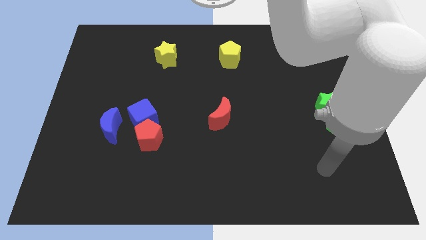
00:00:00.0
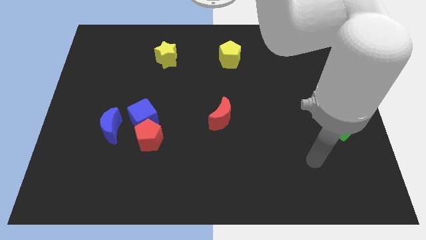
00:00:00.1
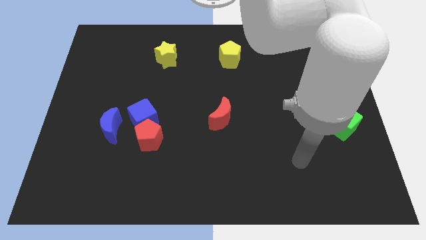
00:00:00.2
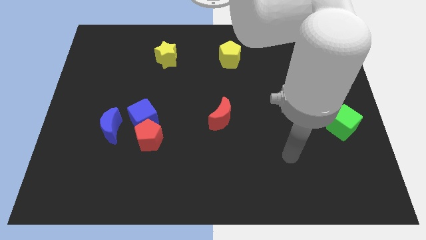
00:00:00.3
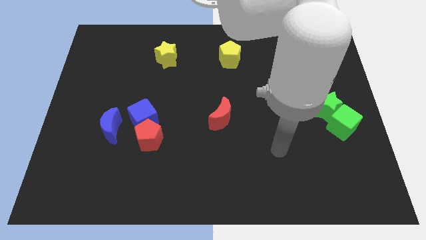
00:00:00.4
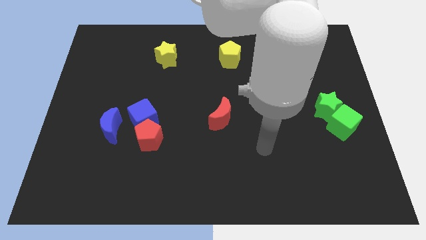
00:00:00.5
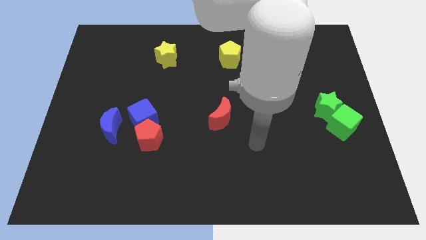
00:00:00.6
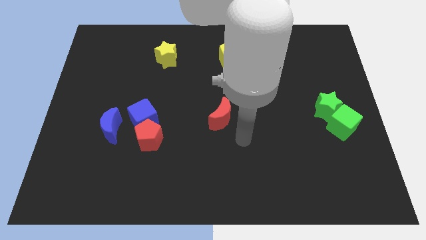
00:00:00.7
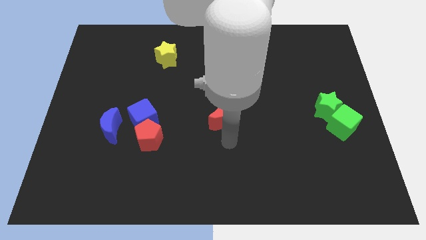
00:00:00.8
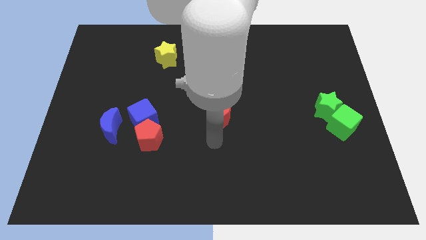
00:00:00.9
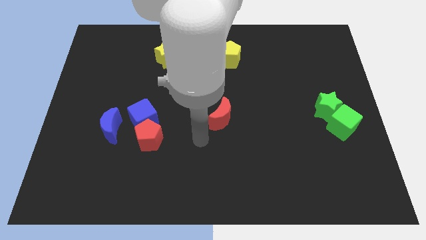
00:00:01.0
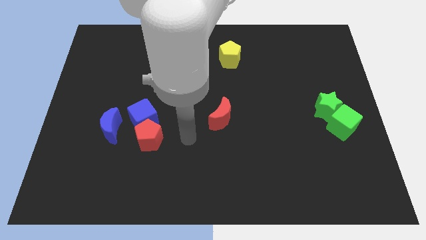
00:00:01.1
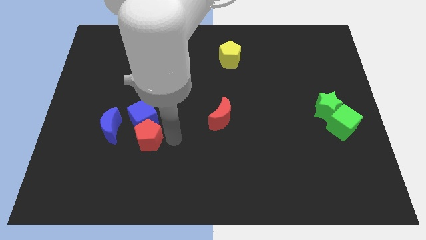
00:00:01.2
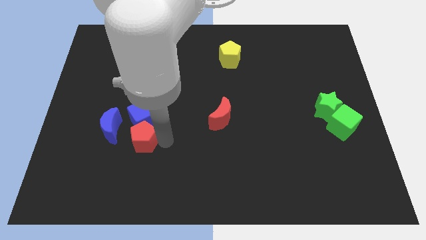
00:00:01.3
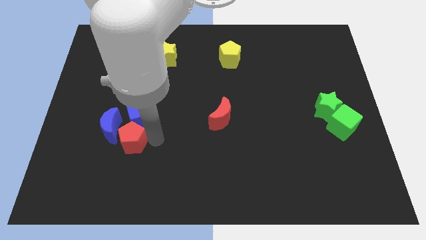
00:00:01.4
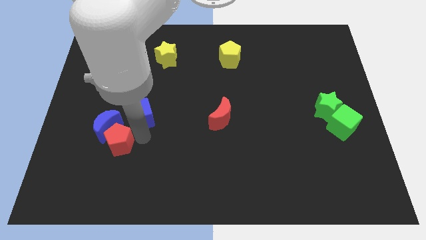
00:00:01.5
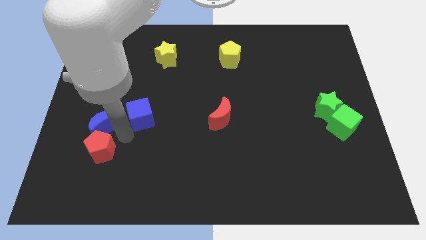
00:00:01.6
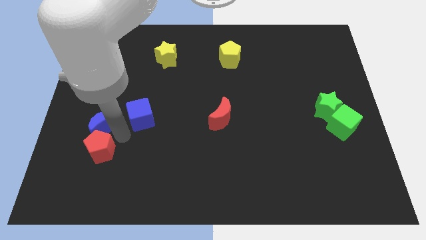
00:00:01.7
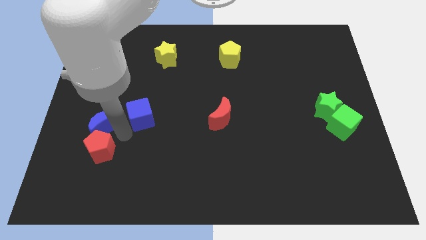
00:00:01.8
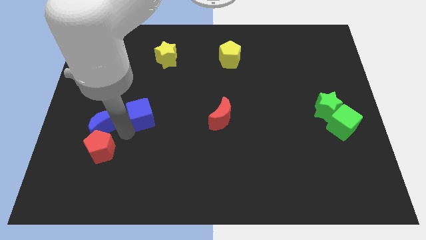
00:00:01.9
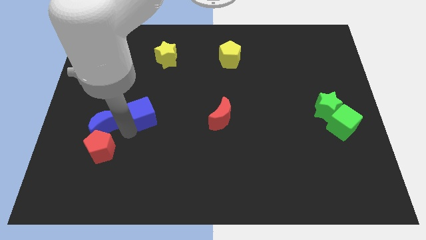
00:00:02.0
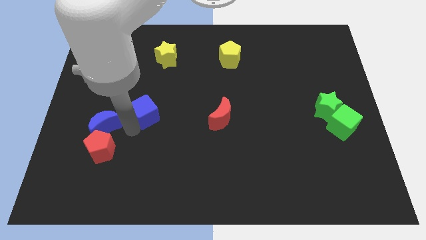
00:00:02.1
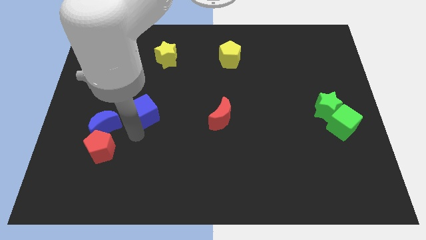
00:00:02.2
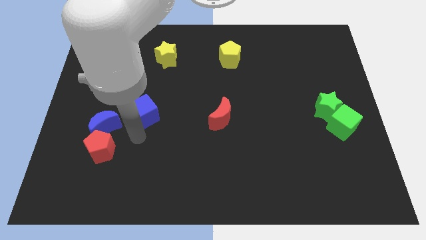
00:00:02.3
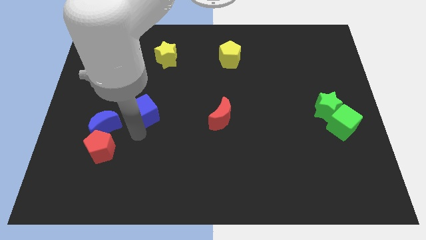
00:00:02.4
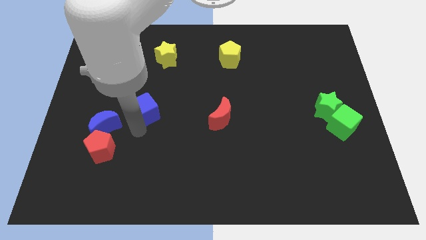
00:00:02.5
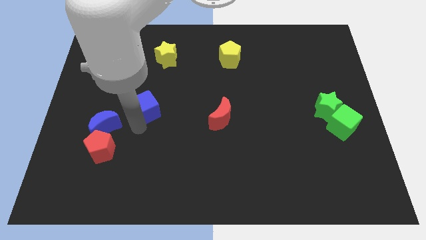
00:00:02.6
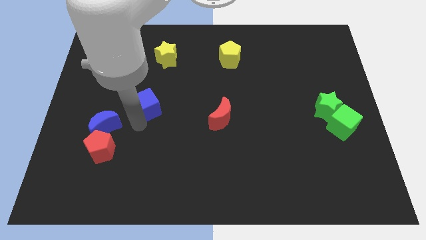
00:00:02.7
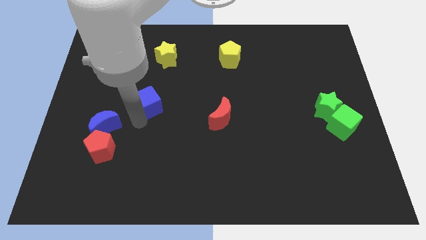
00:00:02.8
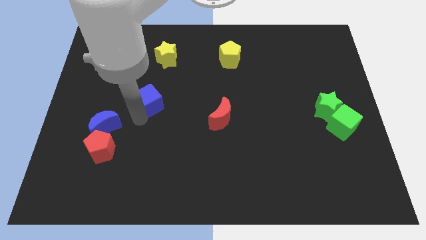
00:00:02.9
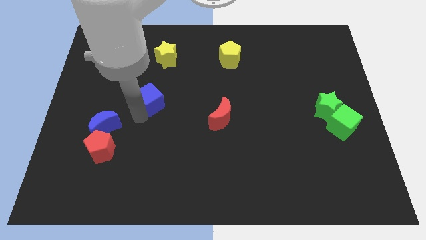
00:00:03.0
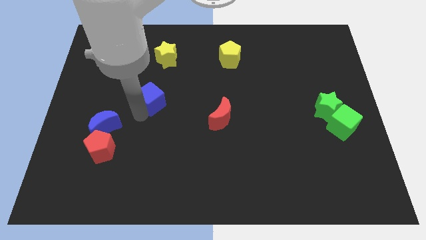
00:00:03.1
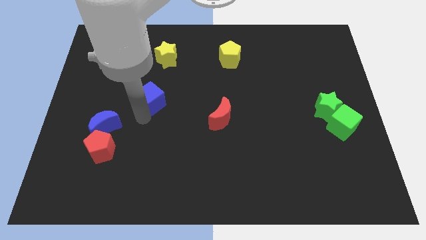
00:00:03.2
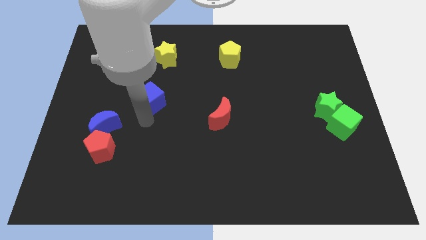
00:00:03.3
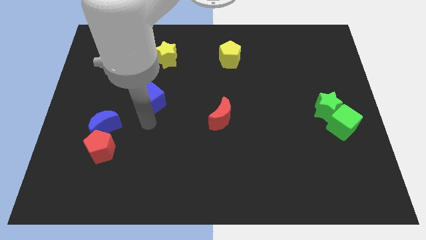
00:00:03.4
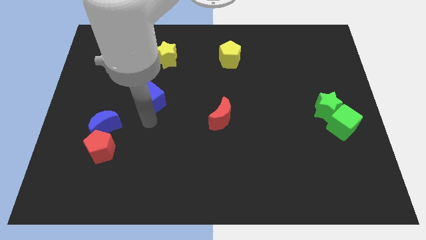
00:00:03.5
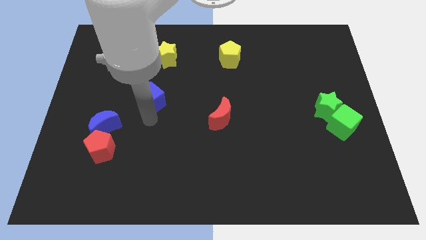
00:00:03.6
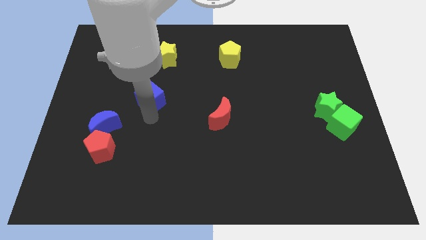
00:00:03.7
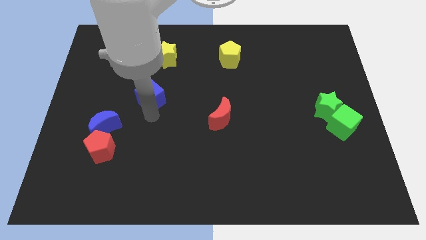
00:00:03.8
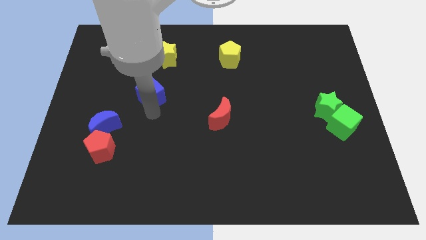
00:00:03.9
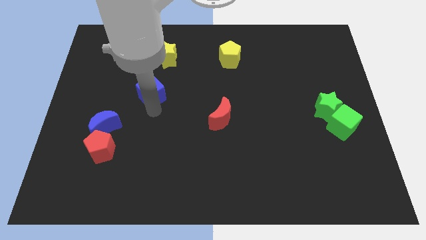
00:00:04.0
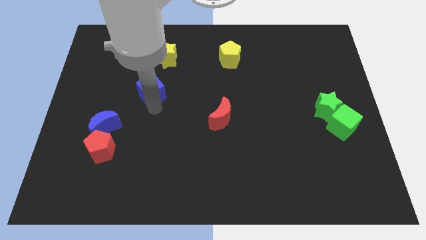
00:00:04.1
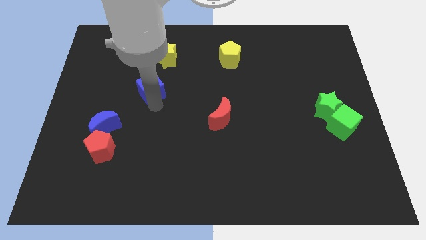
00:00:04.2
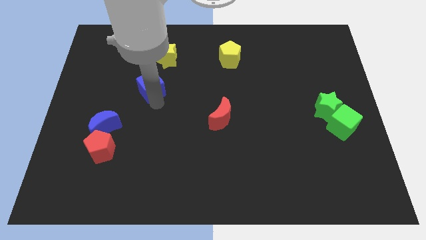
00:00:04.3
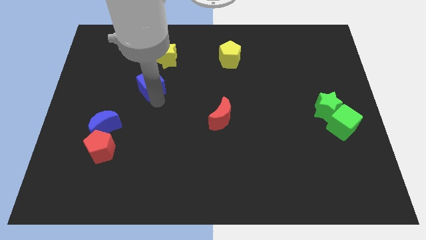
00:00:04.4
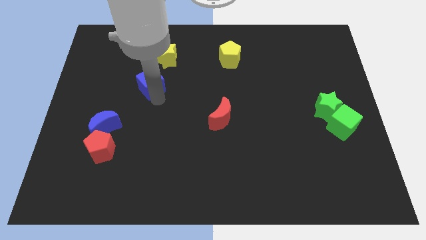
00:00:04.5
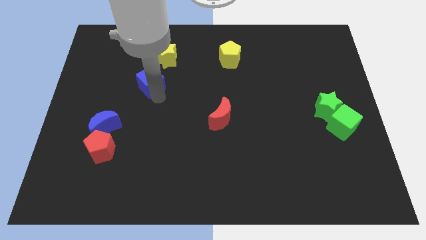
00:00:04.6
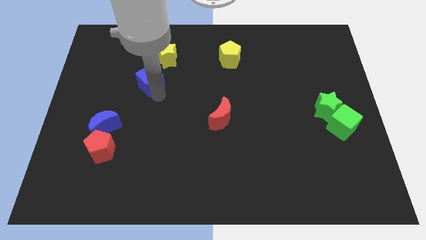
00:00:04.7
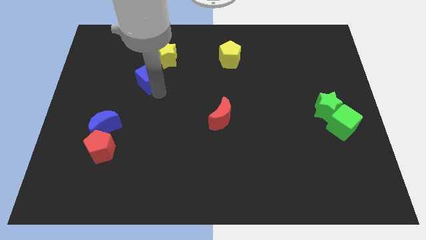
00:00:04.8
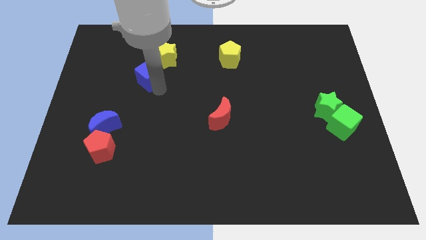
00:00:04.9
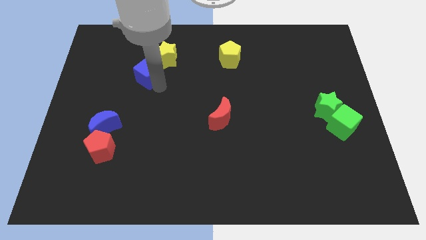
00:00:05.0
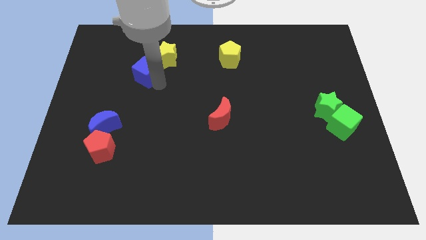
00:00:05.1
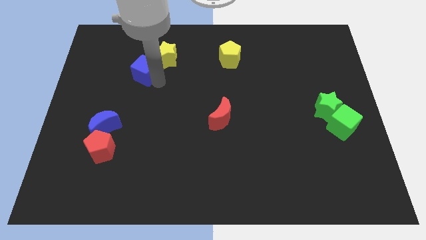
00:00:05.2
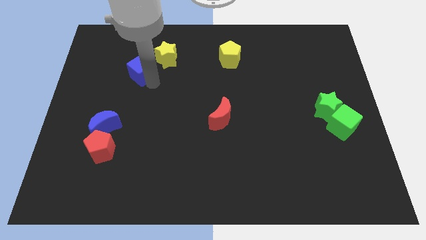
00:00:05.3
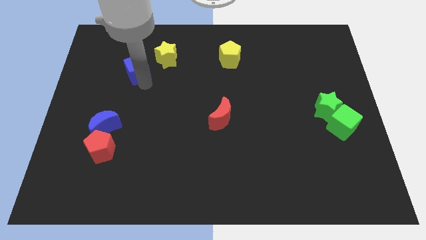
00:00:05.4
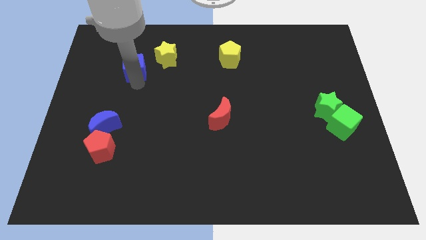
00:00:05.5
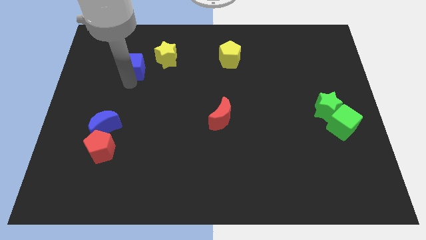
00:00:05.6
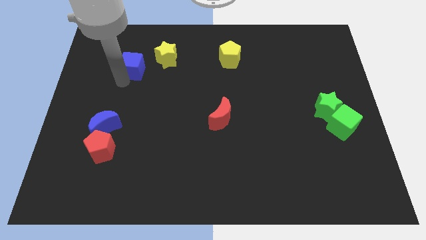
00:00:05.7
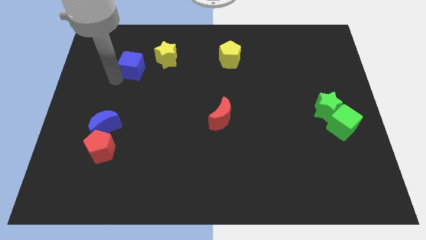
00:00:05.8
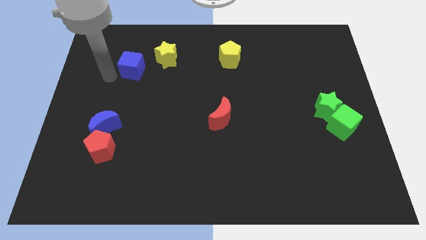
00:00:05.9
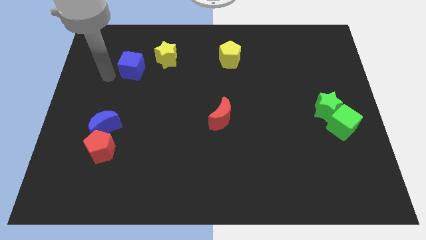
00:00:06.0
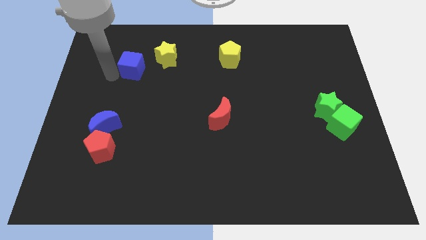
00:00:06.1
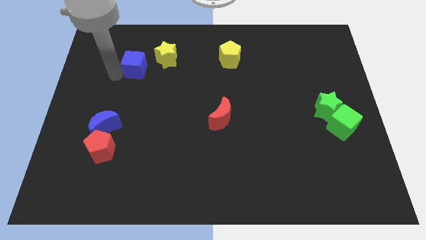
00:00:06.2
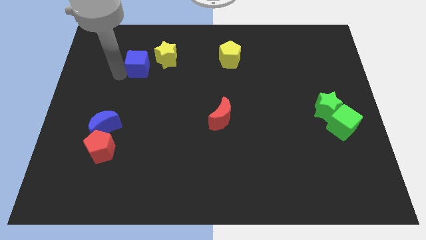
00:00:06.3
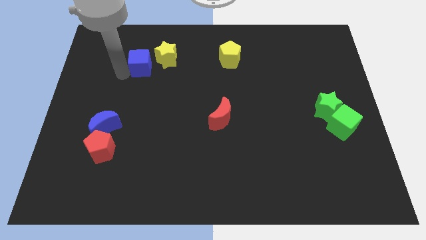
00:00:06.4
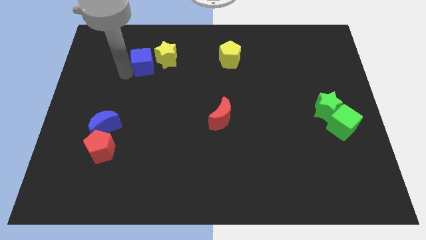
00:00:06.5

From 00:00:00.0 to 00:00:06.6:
slide the blue cube next to the yellow star

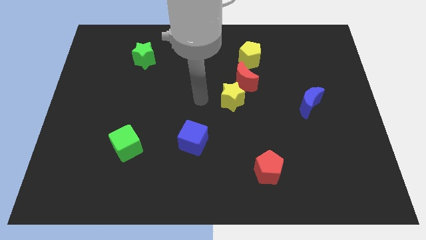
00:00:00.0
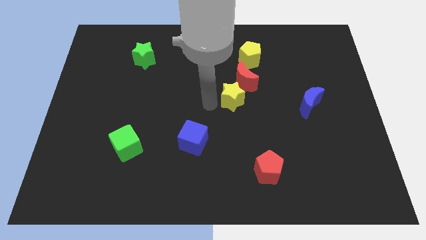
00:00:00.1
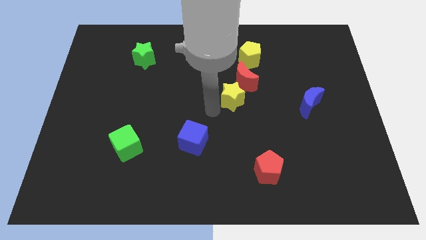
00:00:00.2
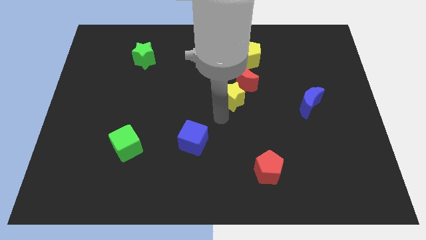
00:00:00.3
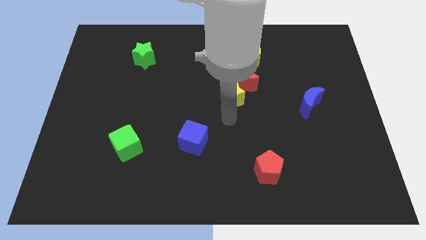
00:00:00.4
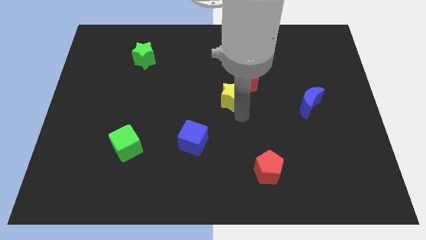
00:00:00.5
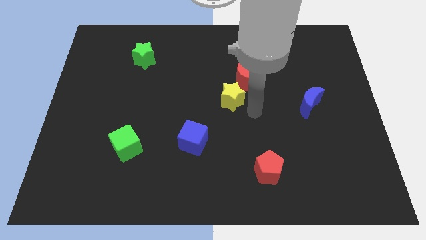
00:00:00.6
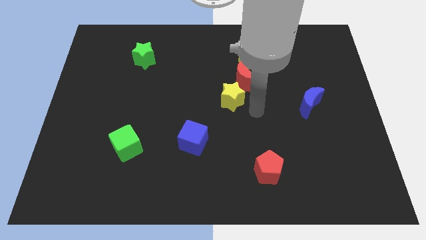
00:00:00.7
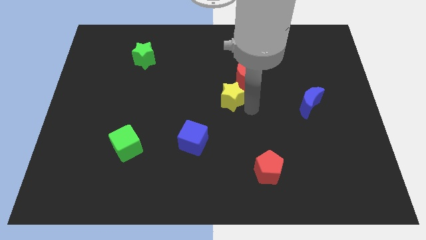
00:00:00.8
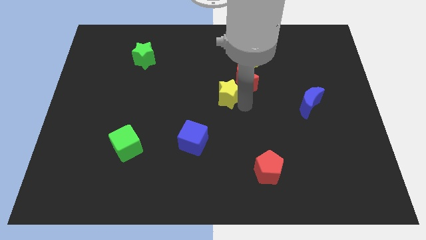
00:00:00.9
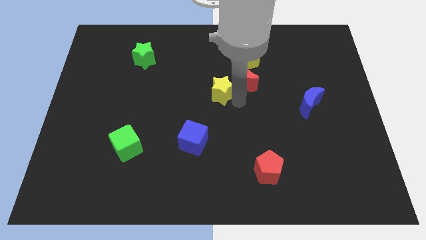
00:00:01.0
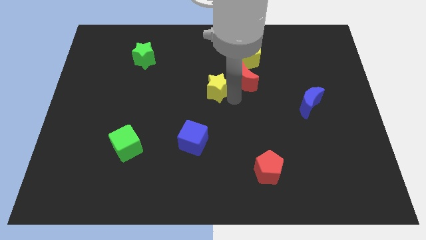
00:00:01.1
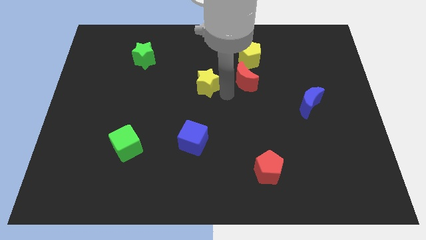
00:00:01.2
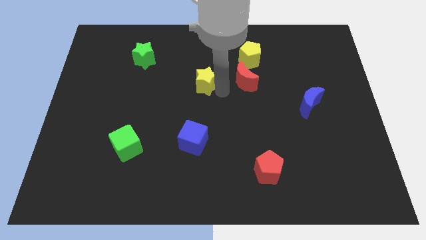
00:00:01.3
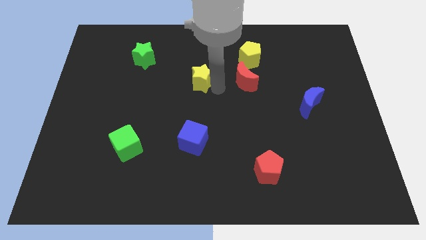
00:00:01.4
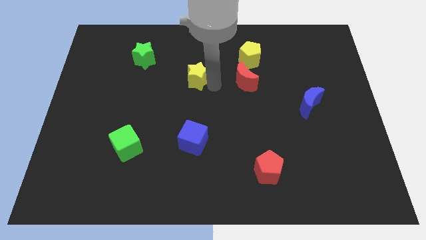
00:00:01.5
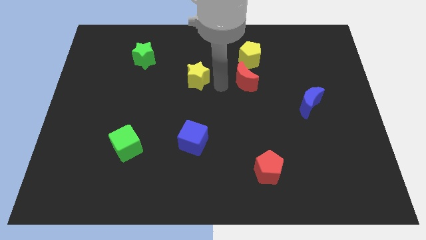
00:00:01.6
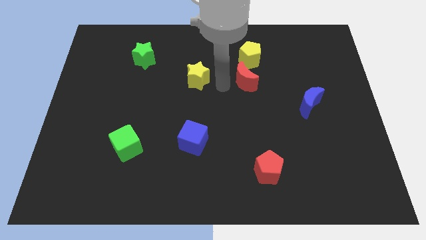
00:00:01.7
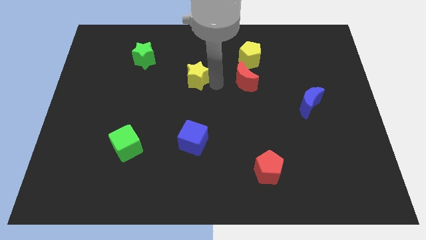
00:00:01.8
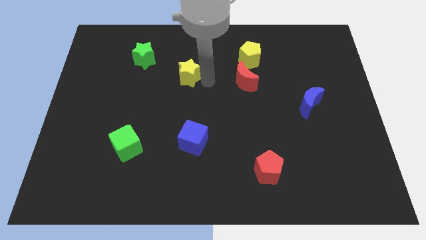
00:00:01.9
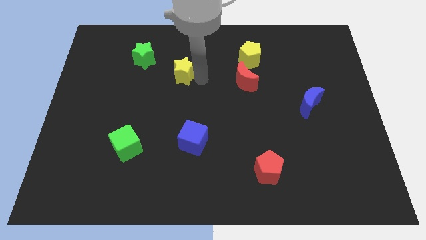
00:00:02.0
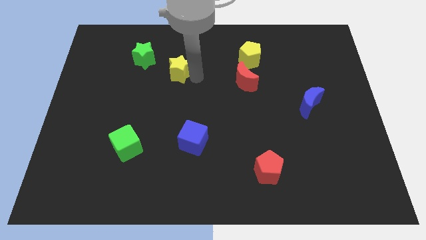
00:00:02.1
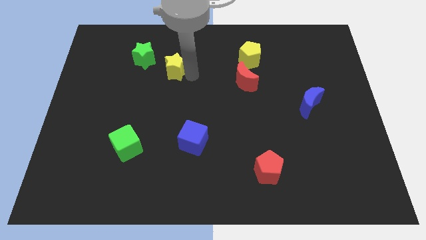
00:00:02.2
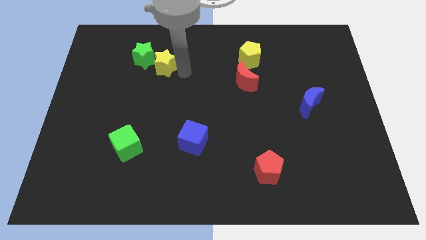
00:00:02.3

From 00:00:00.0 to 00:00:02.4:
slide the yellow star close to the green star
